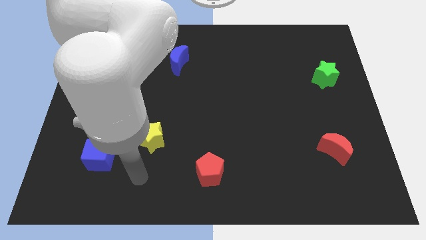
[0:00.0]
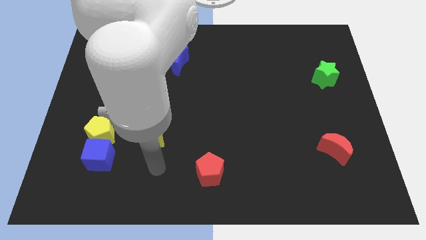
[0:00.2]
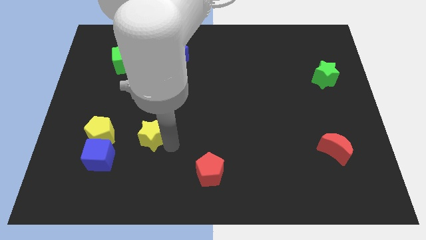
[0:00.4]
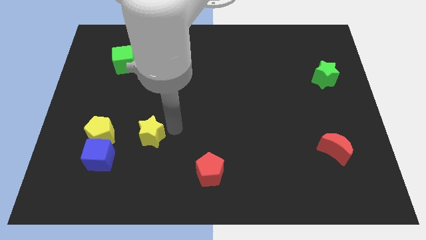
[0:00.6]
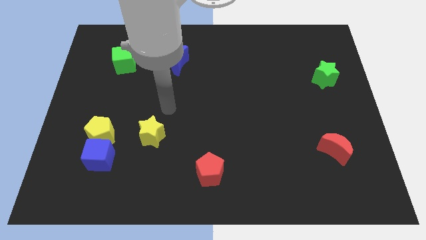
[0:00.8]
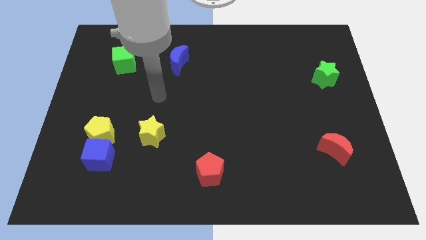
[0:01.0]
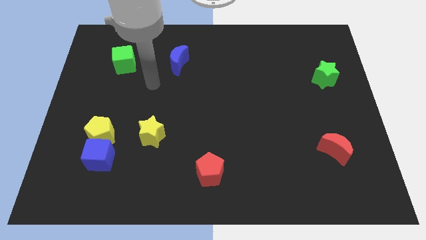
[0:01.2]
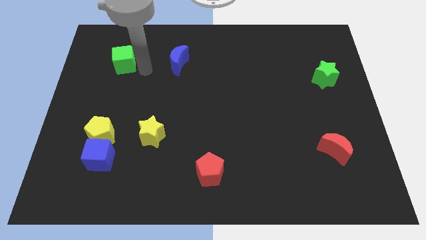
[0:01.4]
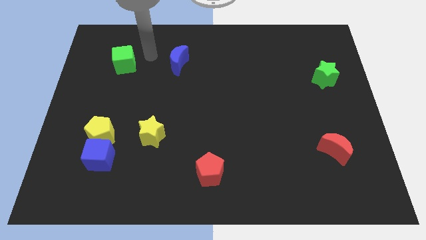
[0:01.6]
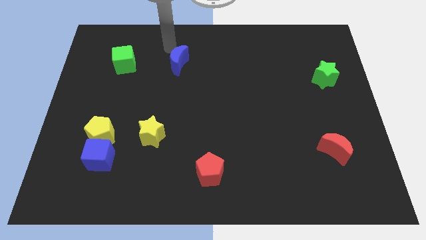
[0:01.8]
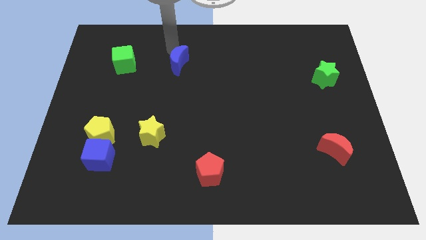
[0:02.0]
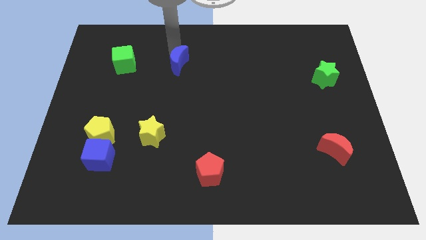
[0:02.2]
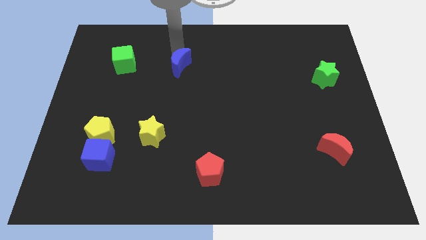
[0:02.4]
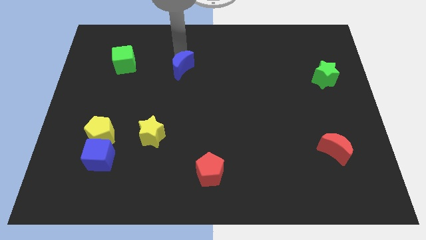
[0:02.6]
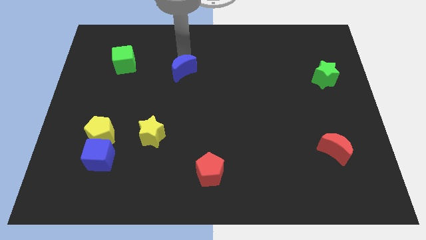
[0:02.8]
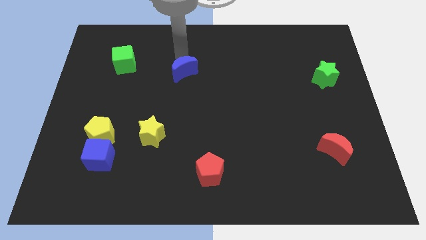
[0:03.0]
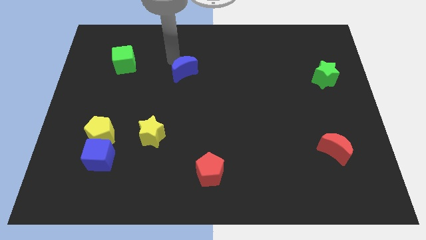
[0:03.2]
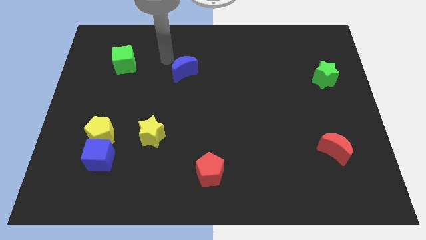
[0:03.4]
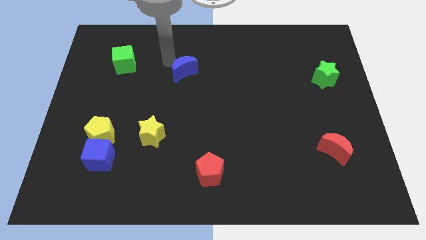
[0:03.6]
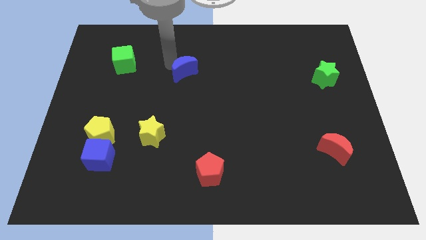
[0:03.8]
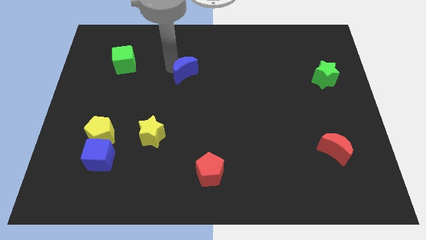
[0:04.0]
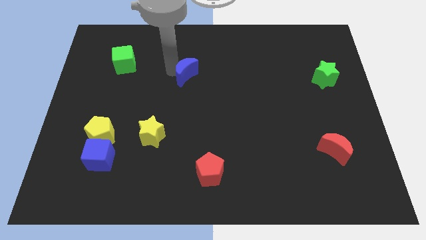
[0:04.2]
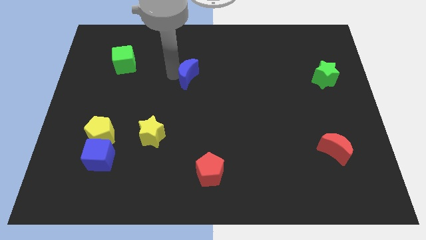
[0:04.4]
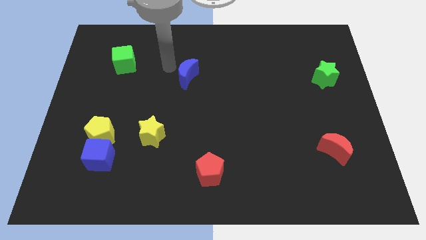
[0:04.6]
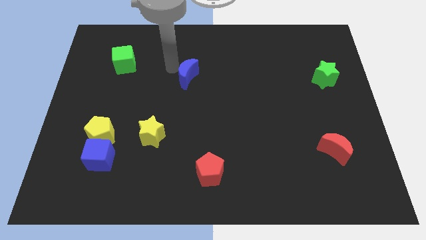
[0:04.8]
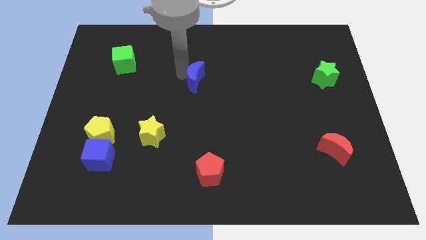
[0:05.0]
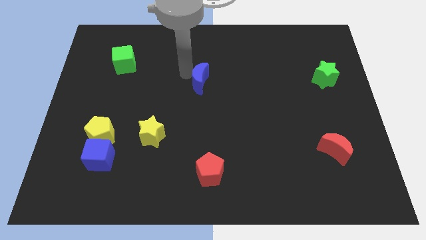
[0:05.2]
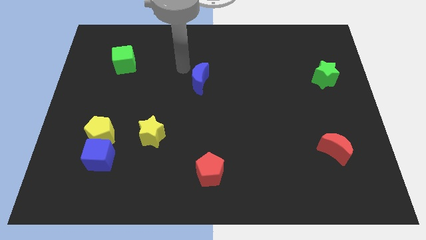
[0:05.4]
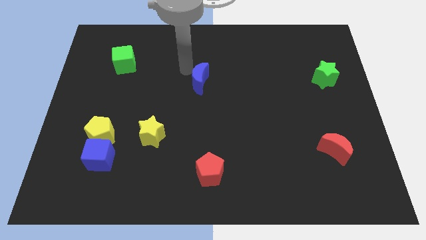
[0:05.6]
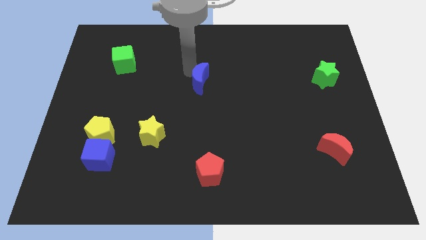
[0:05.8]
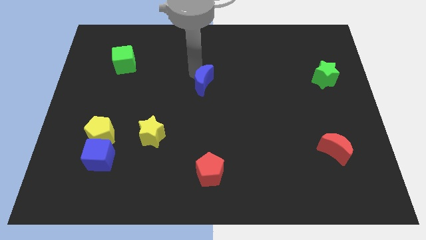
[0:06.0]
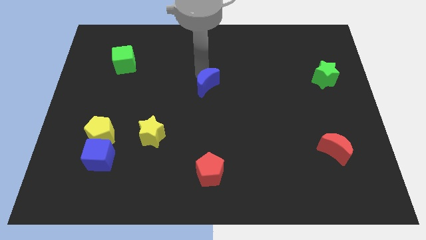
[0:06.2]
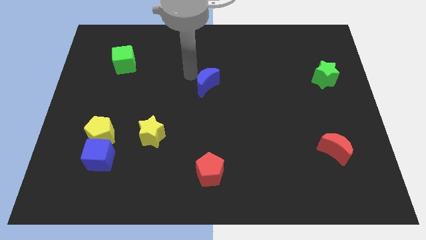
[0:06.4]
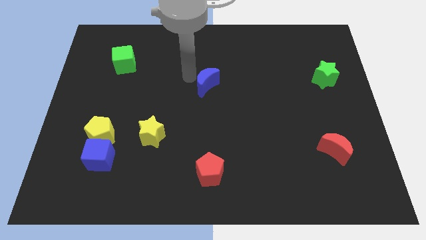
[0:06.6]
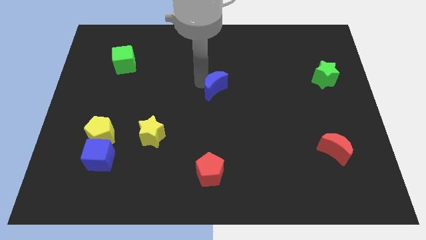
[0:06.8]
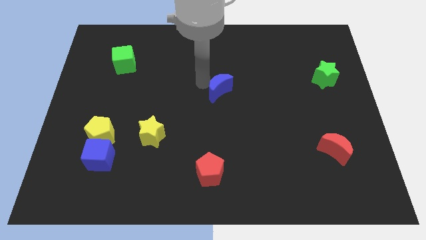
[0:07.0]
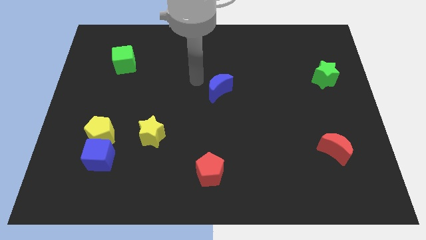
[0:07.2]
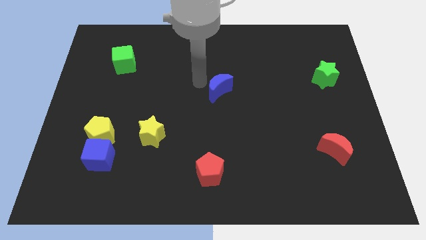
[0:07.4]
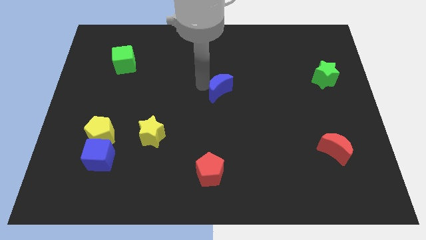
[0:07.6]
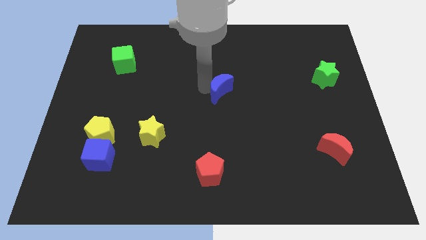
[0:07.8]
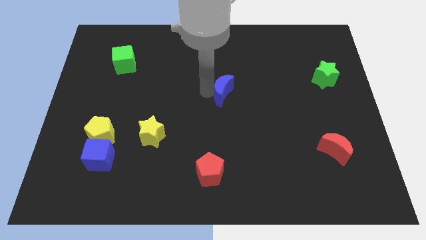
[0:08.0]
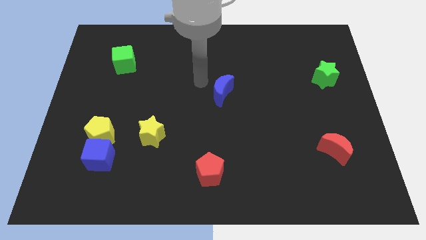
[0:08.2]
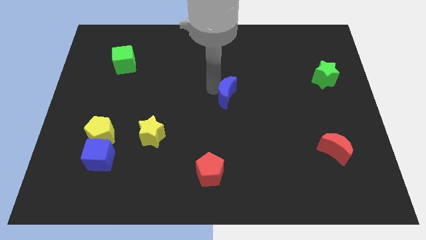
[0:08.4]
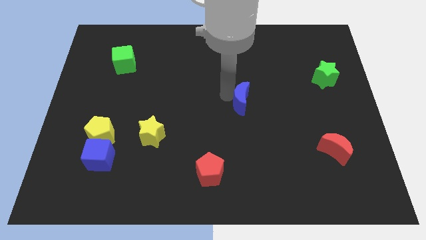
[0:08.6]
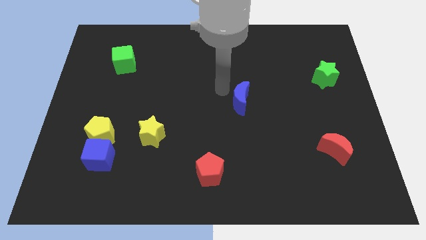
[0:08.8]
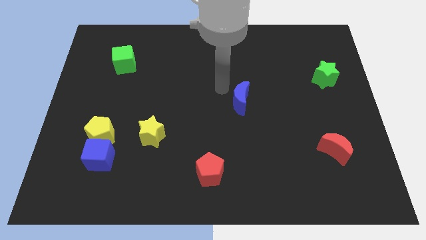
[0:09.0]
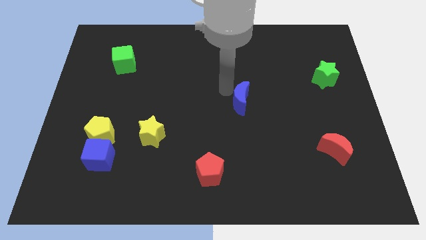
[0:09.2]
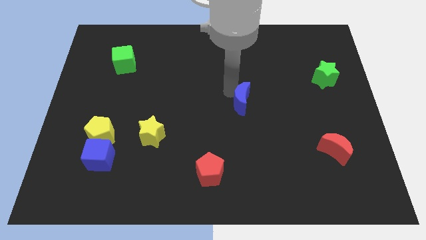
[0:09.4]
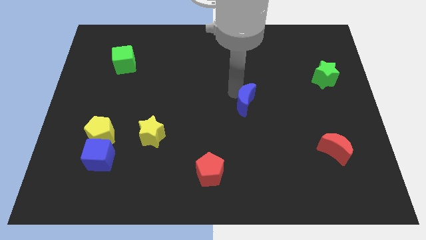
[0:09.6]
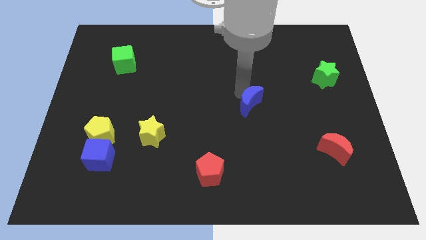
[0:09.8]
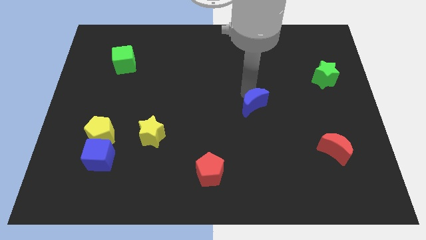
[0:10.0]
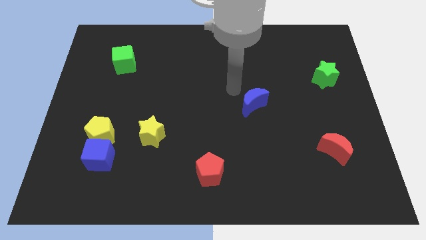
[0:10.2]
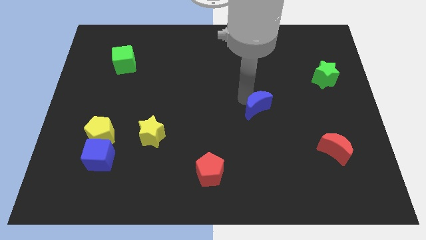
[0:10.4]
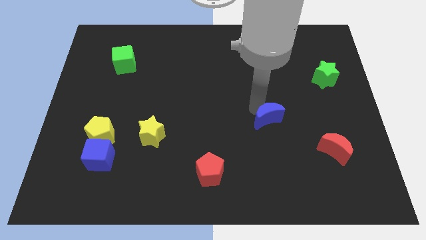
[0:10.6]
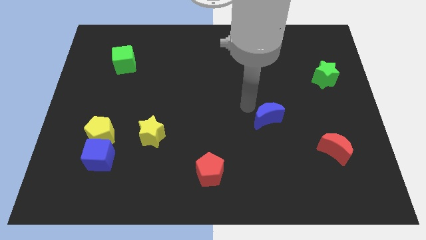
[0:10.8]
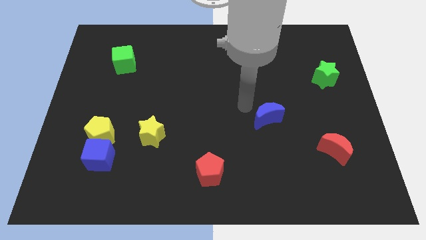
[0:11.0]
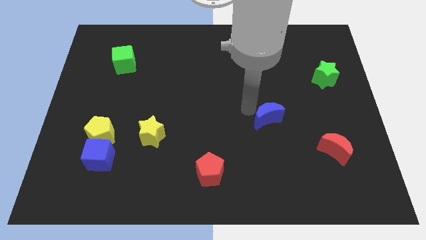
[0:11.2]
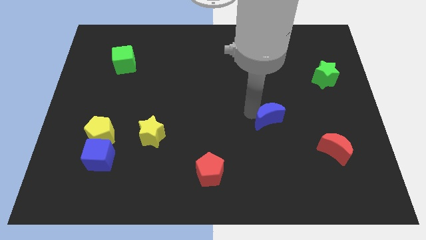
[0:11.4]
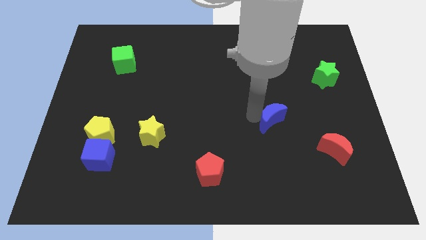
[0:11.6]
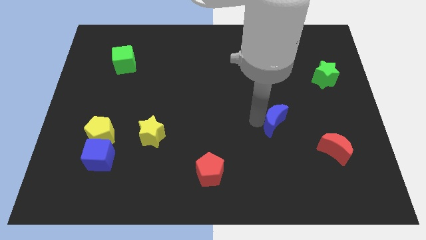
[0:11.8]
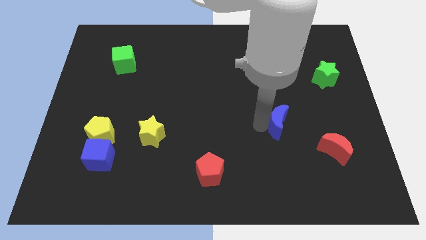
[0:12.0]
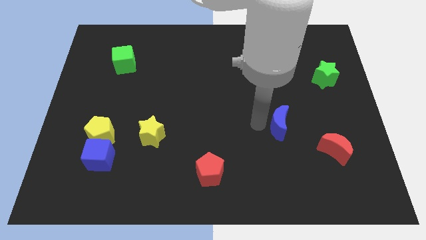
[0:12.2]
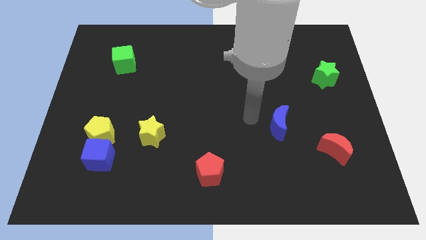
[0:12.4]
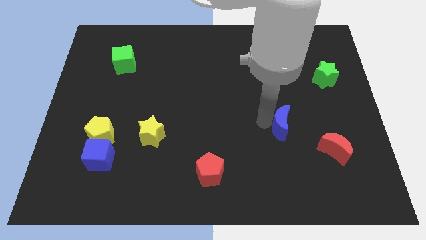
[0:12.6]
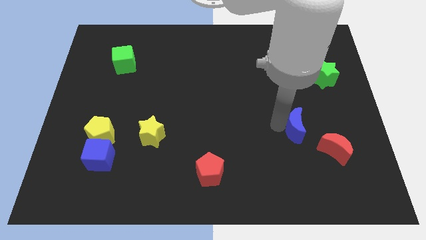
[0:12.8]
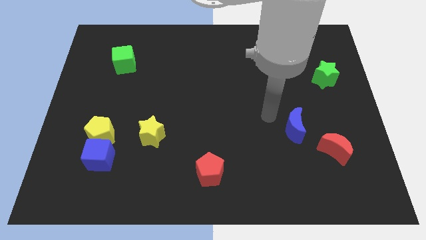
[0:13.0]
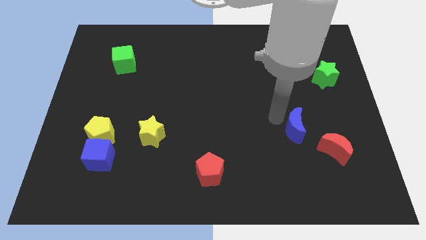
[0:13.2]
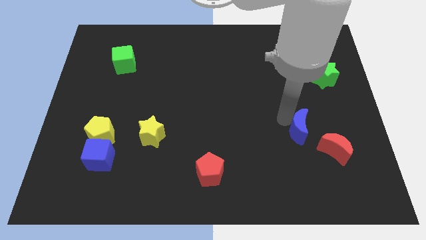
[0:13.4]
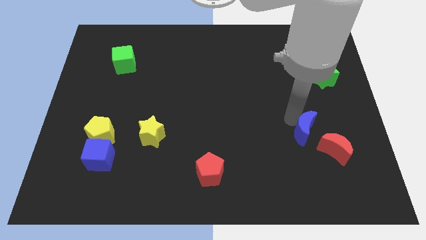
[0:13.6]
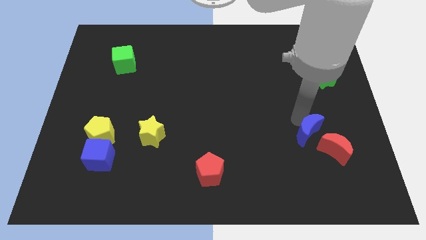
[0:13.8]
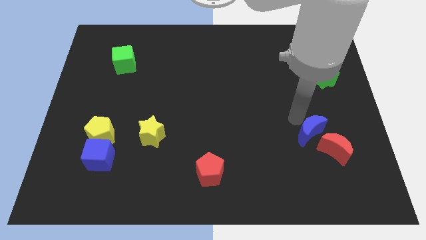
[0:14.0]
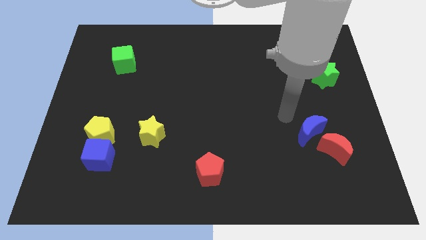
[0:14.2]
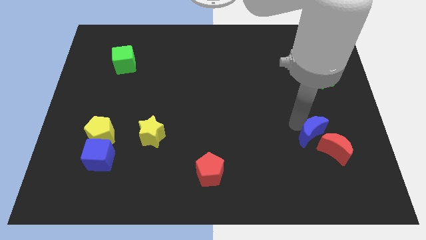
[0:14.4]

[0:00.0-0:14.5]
push the blue moon close to the red moon

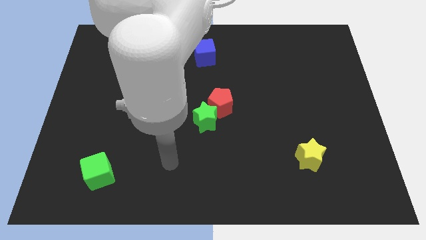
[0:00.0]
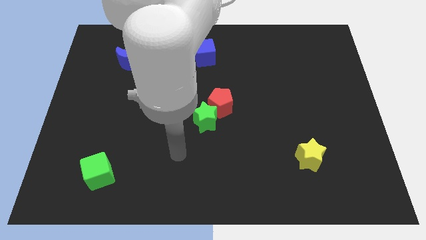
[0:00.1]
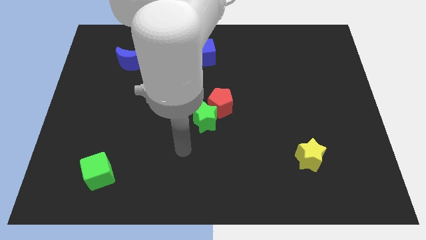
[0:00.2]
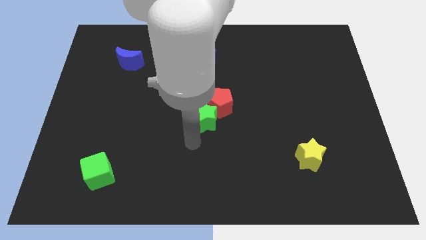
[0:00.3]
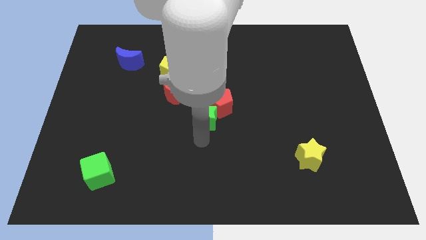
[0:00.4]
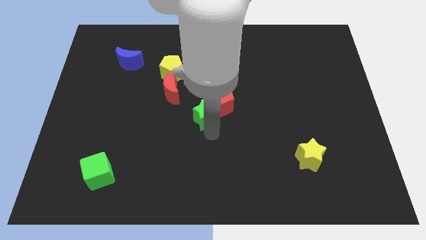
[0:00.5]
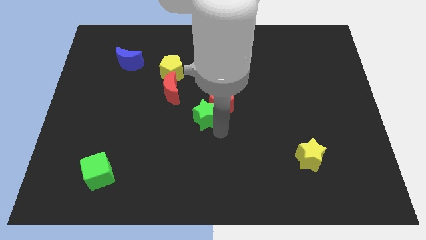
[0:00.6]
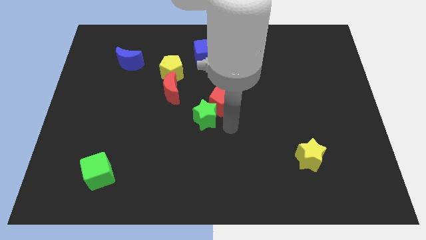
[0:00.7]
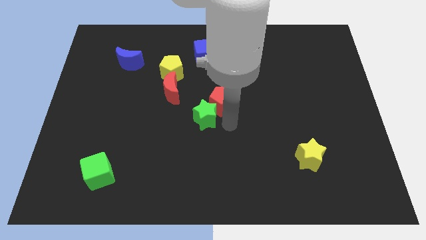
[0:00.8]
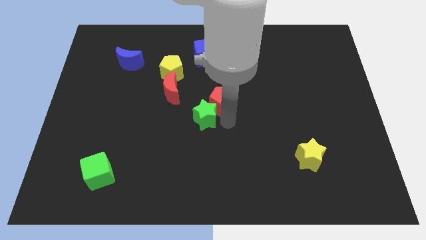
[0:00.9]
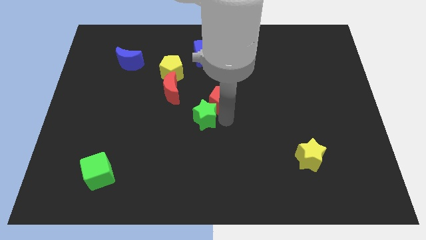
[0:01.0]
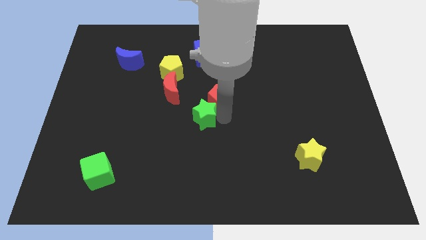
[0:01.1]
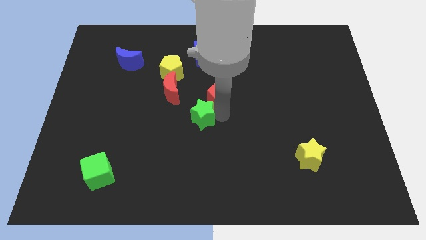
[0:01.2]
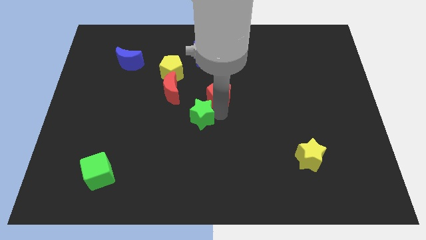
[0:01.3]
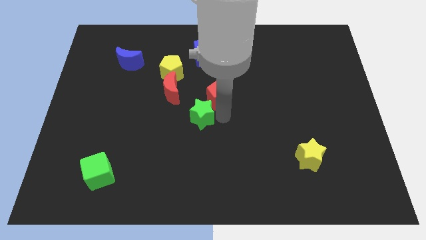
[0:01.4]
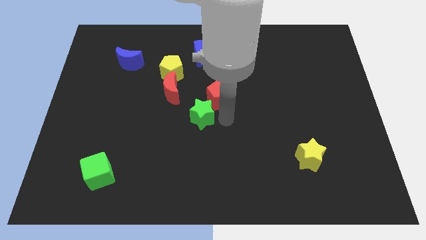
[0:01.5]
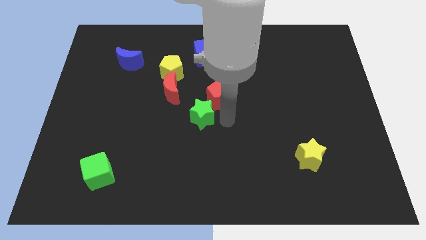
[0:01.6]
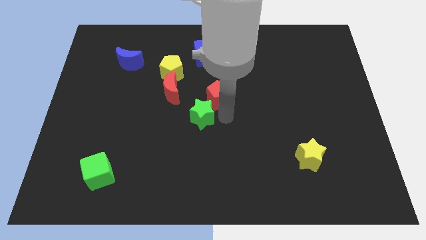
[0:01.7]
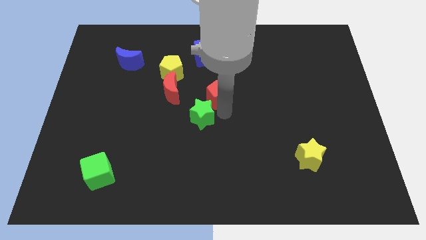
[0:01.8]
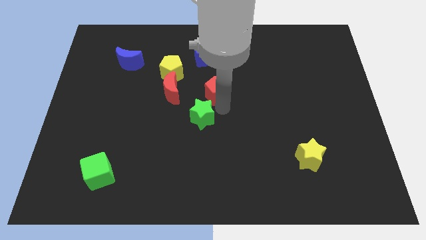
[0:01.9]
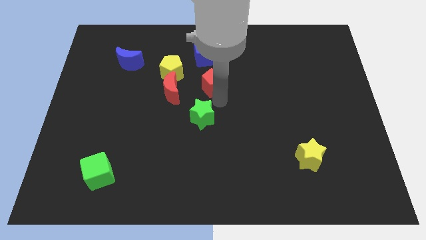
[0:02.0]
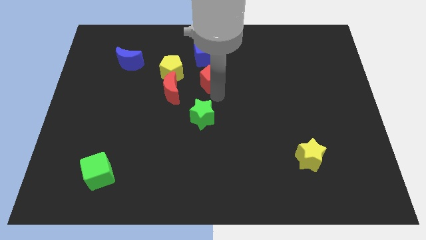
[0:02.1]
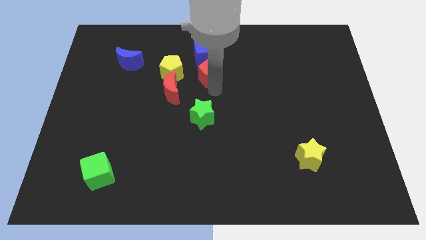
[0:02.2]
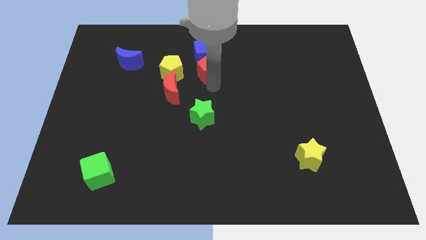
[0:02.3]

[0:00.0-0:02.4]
slide the red pentagon next to the blue cube
